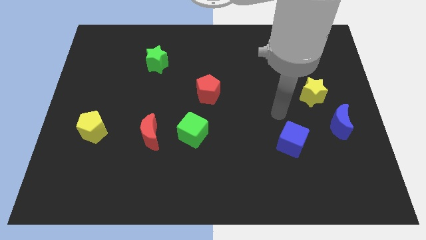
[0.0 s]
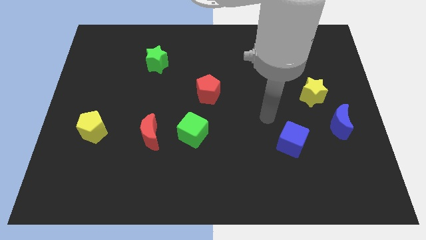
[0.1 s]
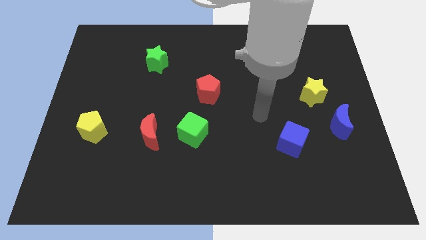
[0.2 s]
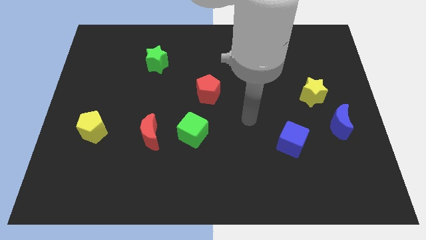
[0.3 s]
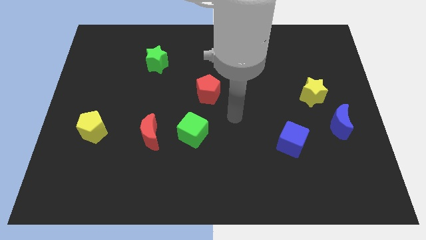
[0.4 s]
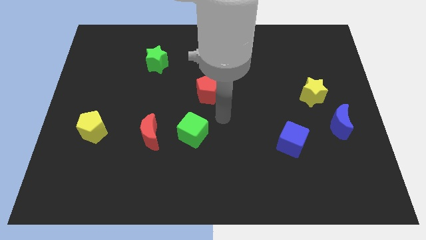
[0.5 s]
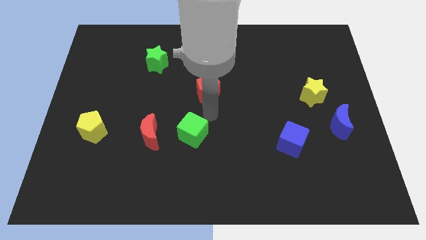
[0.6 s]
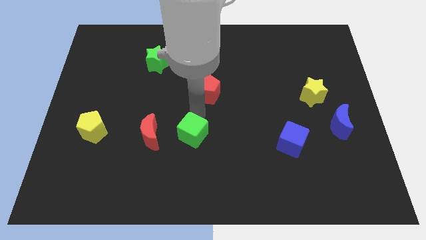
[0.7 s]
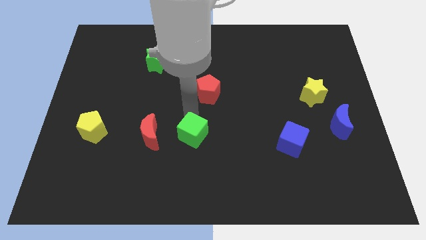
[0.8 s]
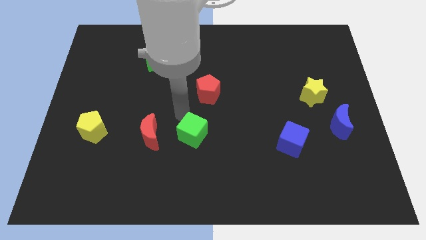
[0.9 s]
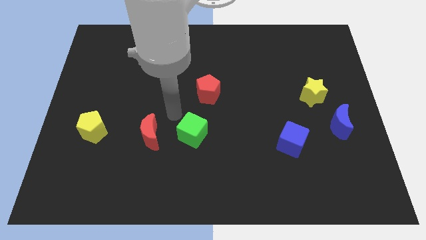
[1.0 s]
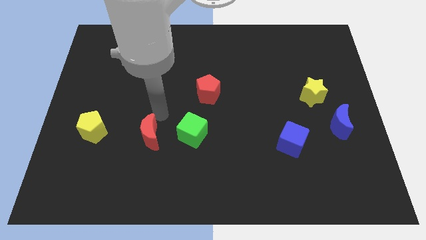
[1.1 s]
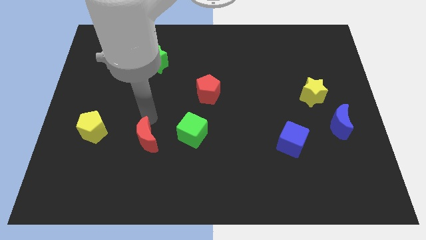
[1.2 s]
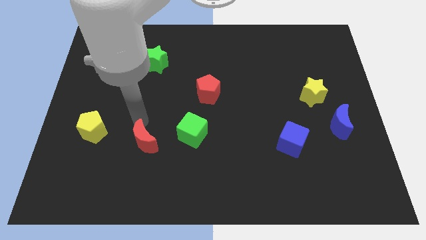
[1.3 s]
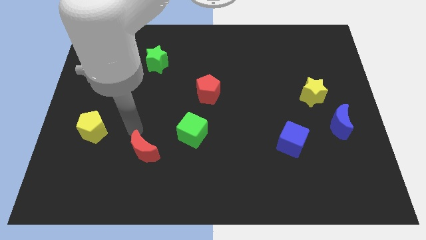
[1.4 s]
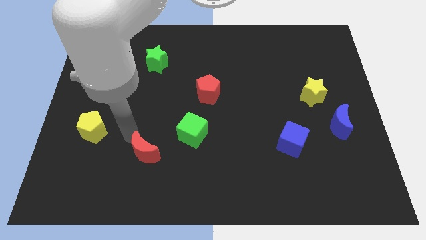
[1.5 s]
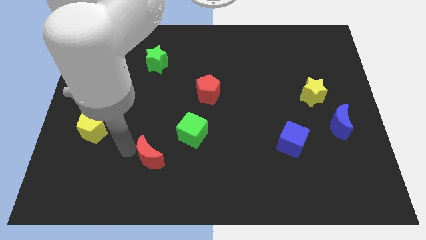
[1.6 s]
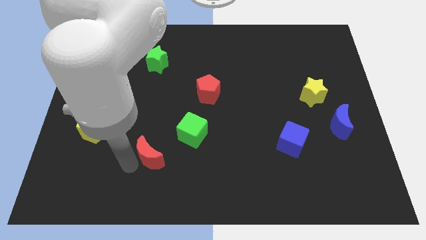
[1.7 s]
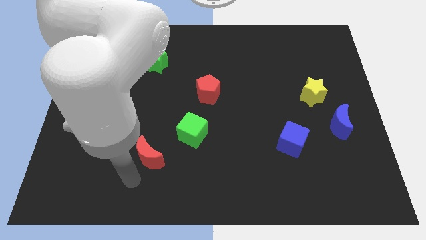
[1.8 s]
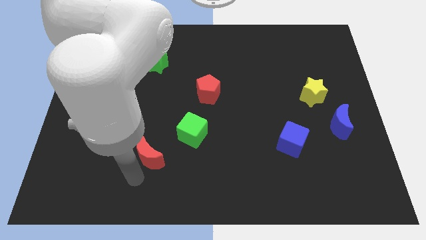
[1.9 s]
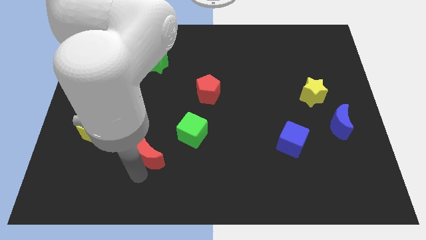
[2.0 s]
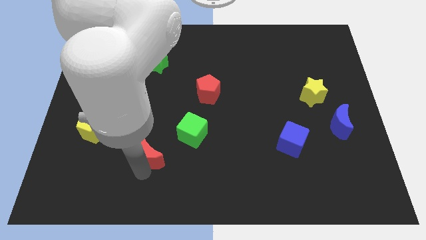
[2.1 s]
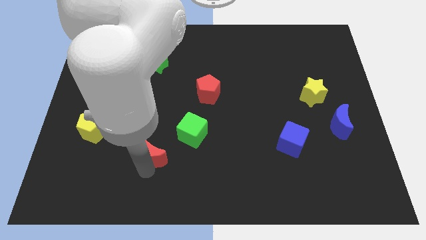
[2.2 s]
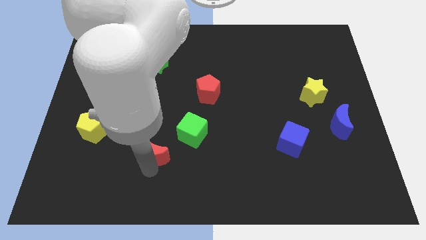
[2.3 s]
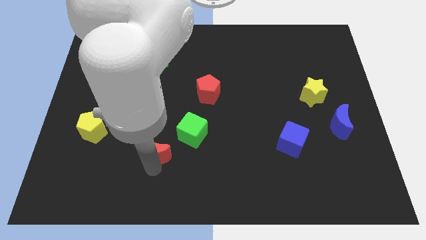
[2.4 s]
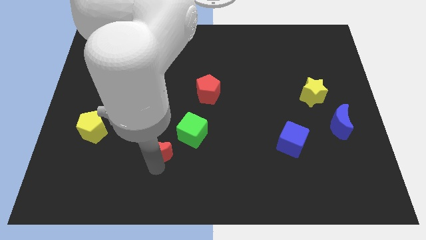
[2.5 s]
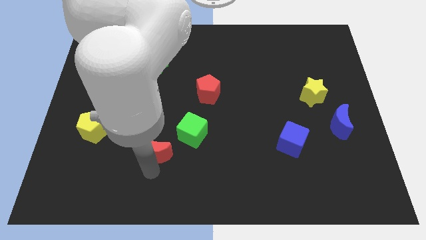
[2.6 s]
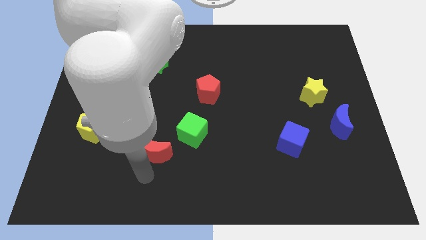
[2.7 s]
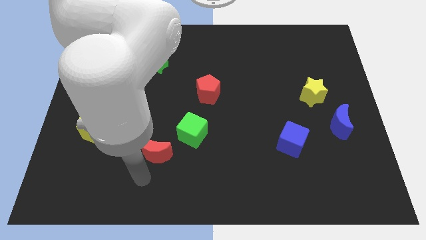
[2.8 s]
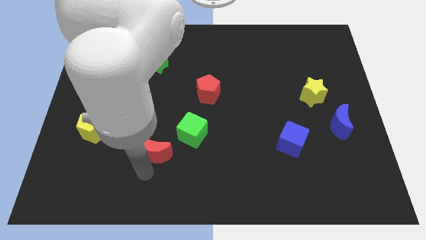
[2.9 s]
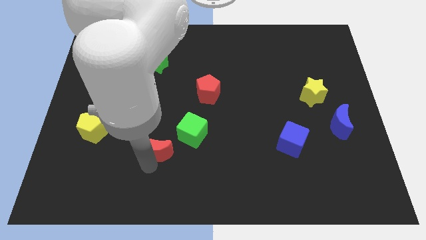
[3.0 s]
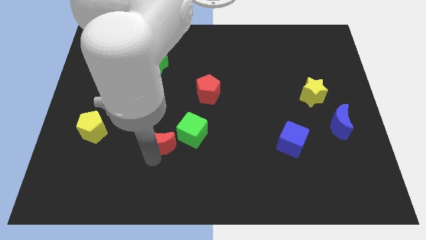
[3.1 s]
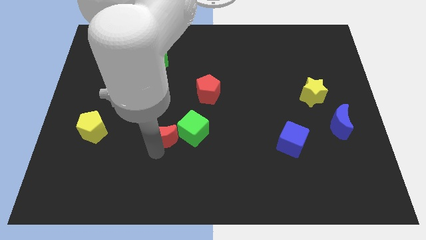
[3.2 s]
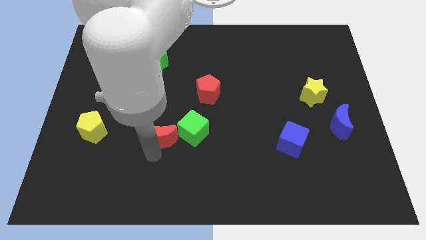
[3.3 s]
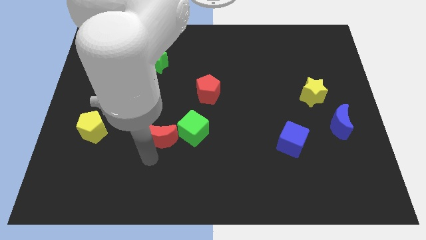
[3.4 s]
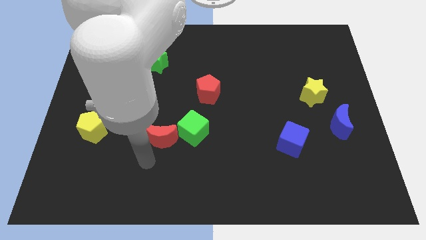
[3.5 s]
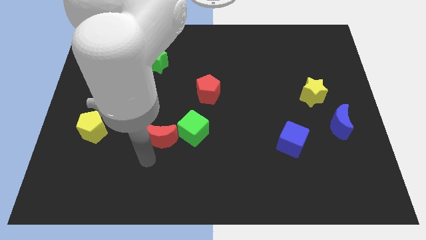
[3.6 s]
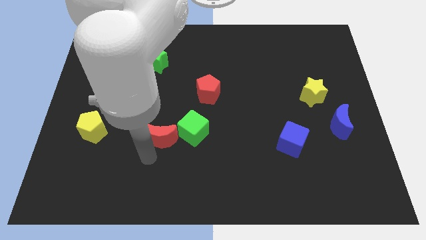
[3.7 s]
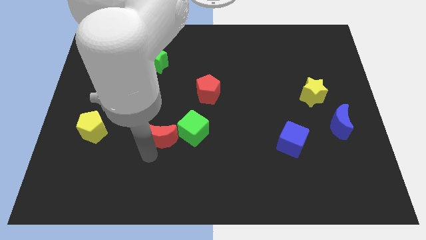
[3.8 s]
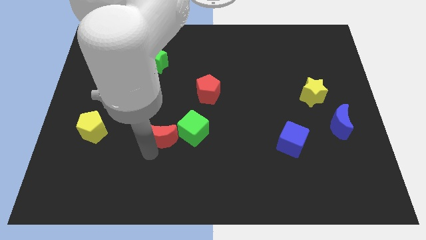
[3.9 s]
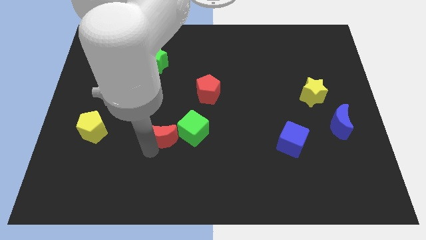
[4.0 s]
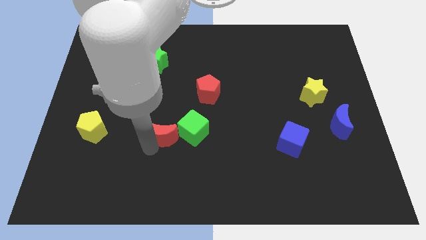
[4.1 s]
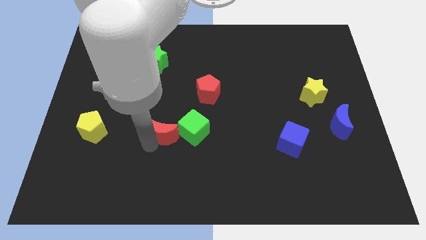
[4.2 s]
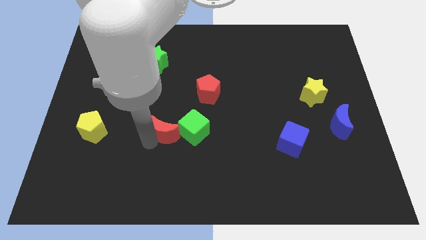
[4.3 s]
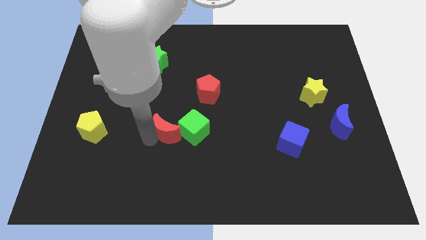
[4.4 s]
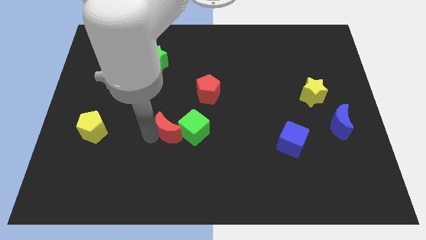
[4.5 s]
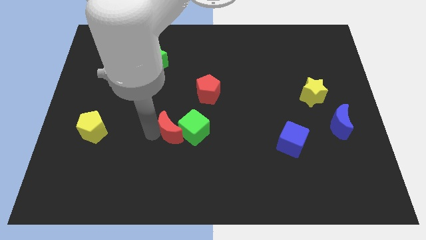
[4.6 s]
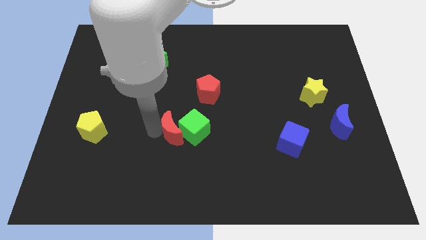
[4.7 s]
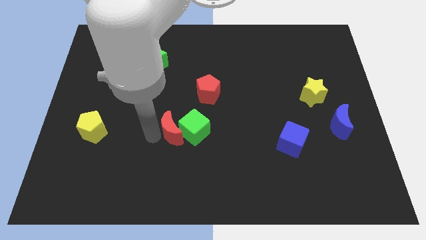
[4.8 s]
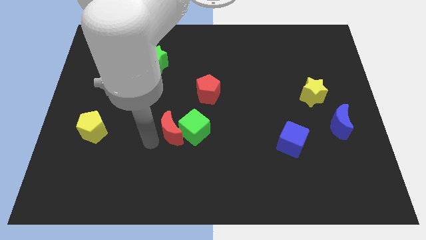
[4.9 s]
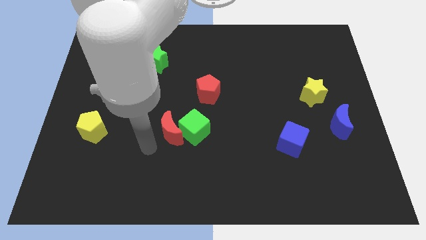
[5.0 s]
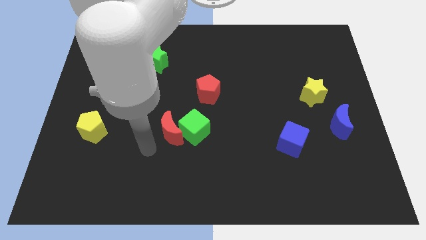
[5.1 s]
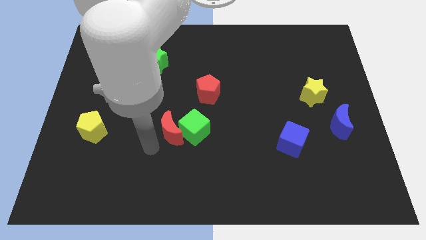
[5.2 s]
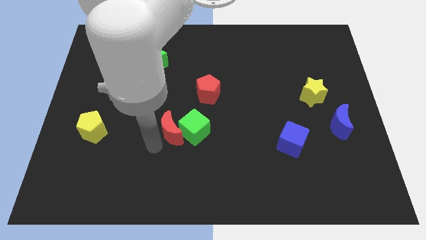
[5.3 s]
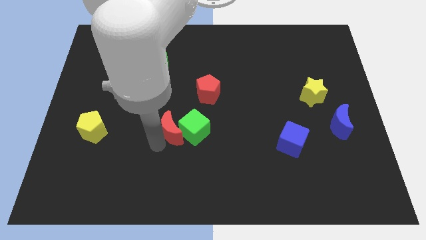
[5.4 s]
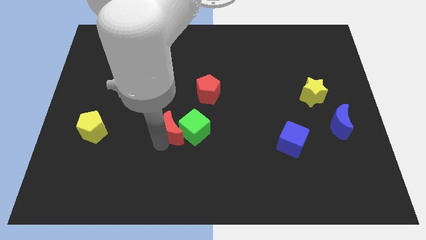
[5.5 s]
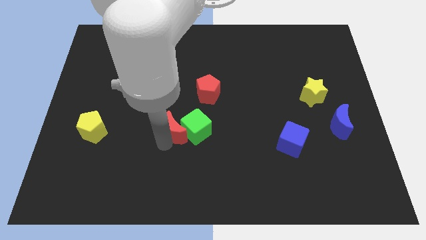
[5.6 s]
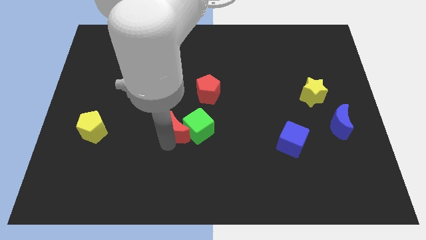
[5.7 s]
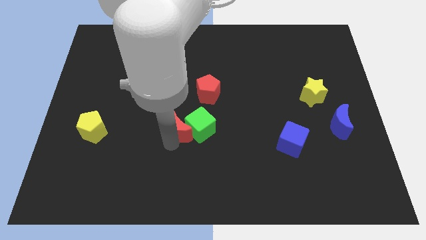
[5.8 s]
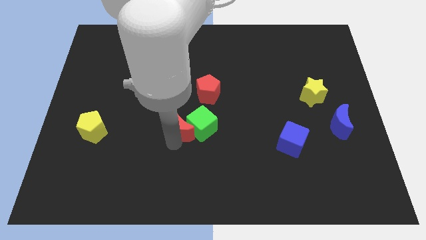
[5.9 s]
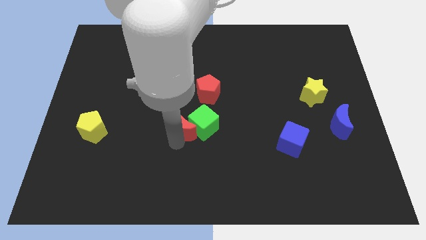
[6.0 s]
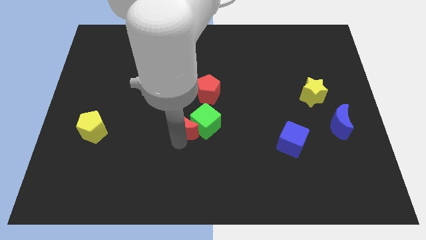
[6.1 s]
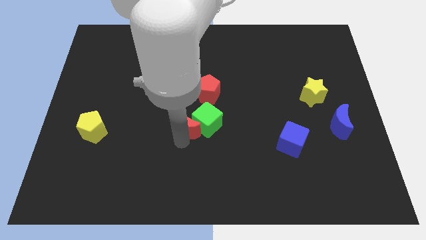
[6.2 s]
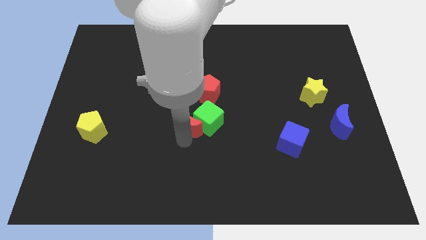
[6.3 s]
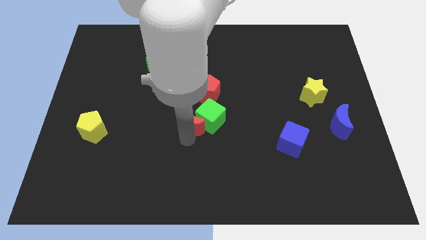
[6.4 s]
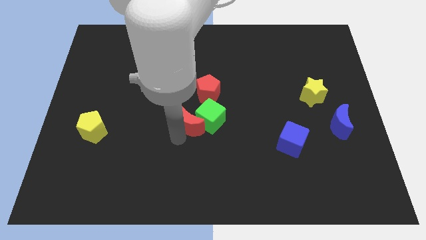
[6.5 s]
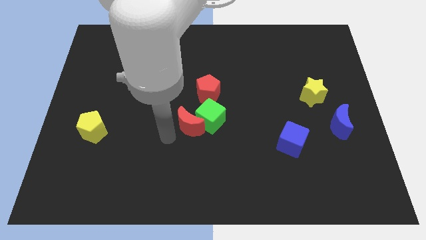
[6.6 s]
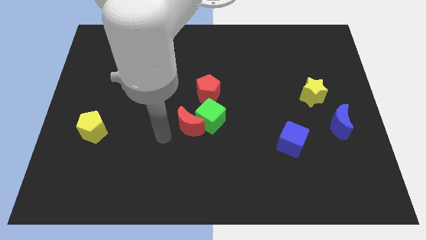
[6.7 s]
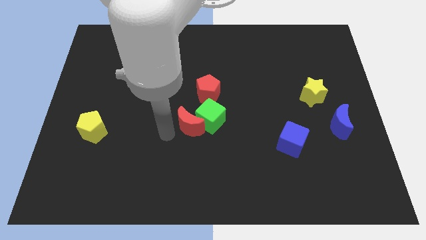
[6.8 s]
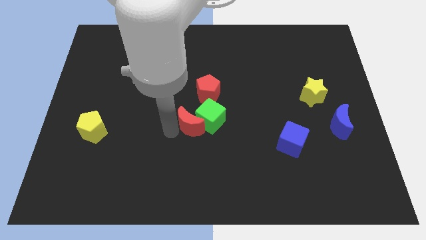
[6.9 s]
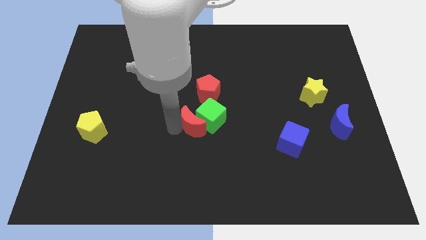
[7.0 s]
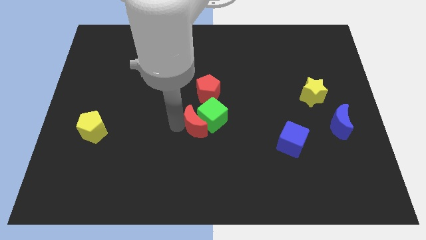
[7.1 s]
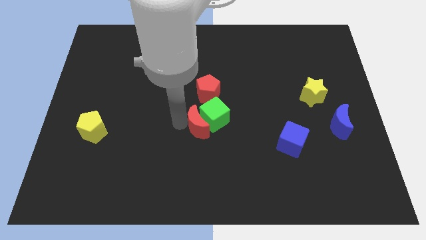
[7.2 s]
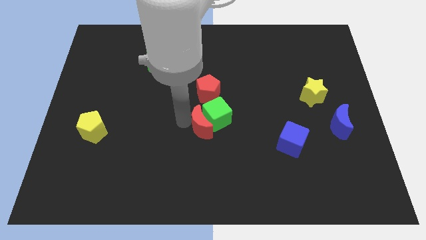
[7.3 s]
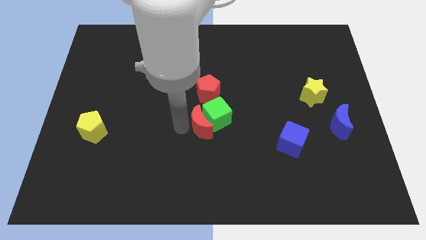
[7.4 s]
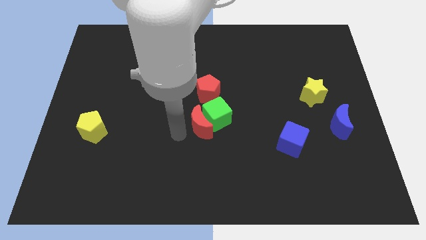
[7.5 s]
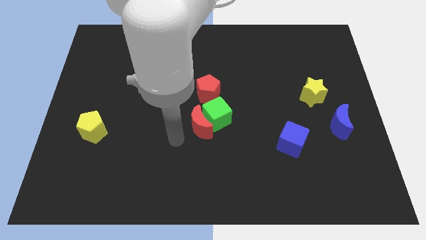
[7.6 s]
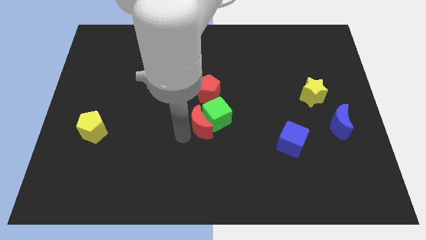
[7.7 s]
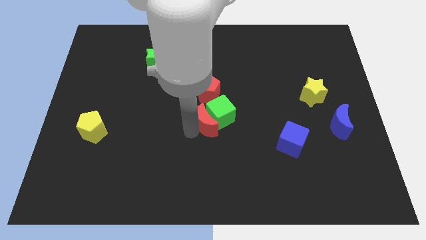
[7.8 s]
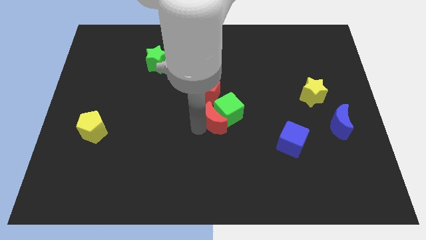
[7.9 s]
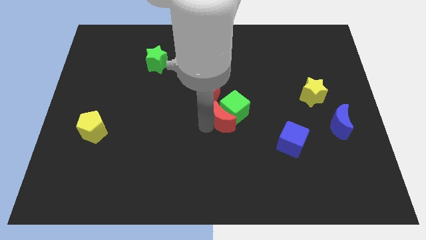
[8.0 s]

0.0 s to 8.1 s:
push the red moon to the bottom right of the red pentagon

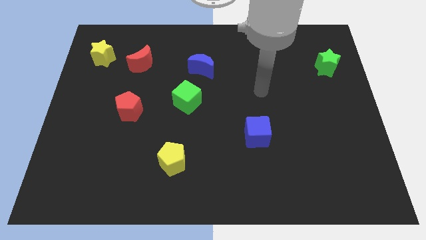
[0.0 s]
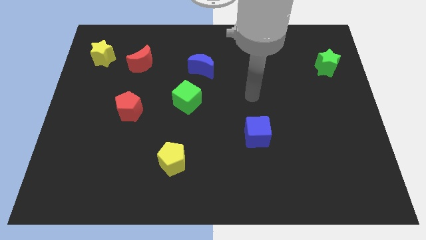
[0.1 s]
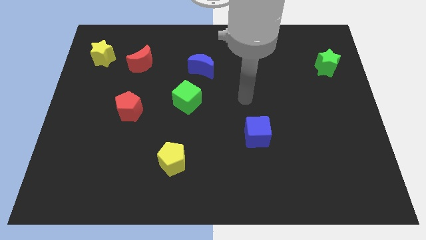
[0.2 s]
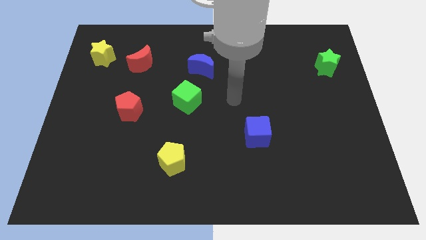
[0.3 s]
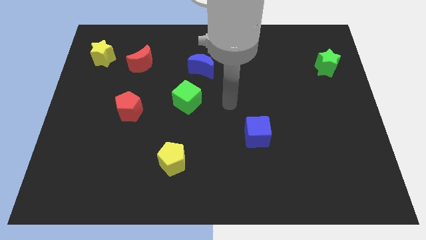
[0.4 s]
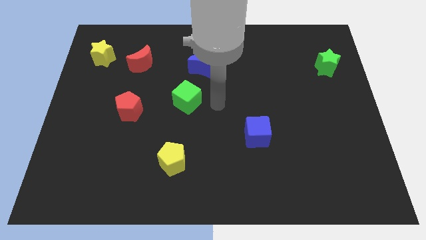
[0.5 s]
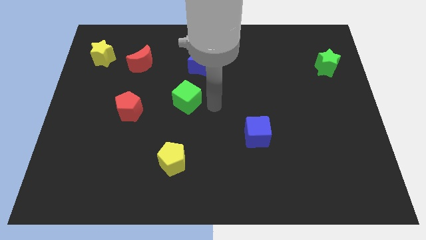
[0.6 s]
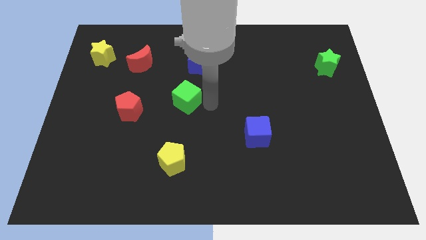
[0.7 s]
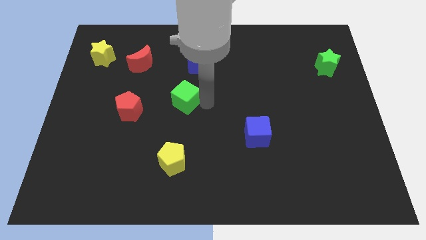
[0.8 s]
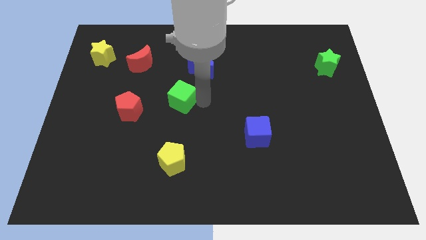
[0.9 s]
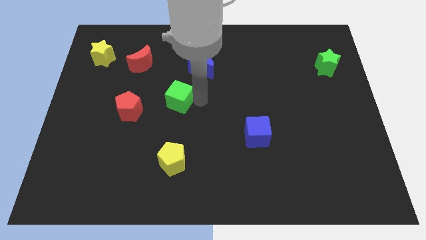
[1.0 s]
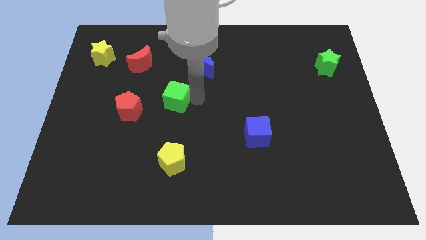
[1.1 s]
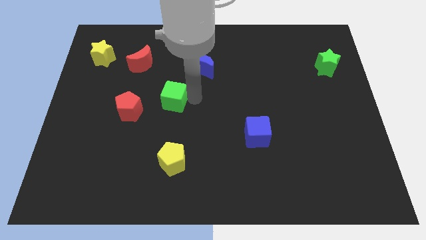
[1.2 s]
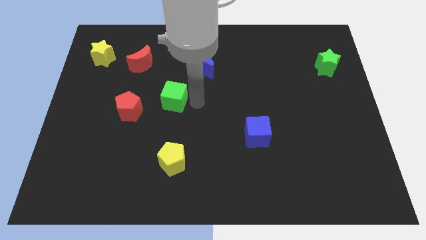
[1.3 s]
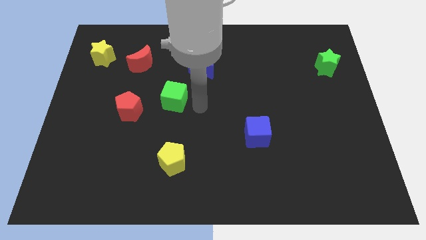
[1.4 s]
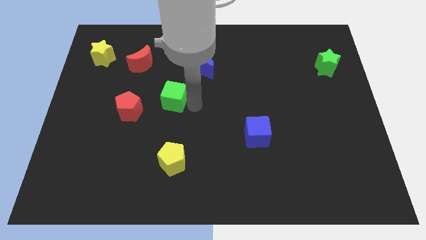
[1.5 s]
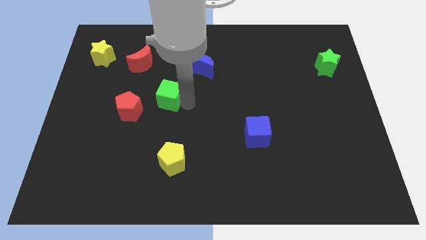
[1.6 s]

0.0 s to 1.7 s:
push the green cube to the top right side of the red pentagon
